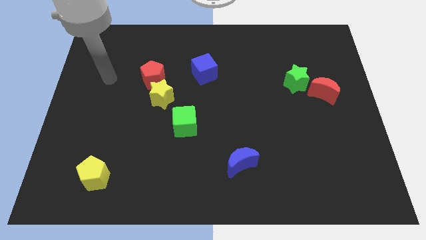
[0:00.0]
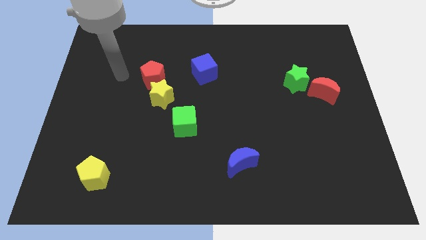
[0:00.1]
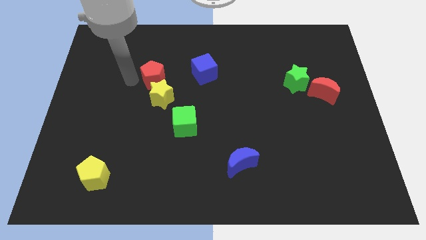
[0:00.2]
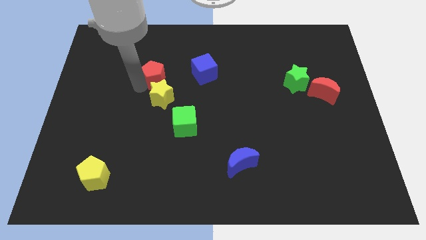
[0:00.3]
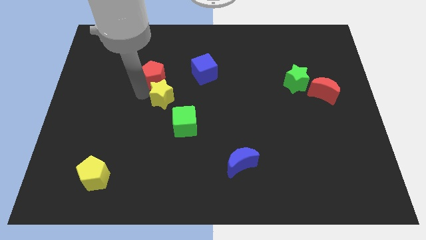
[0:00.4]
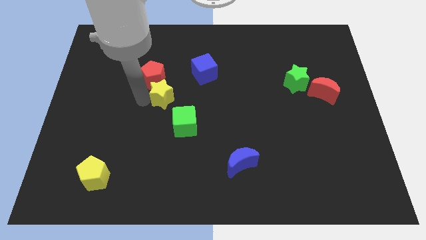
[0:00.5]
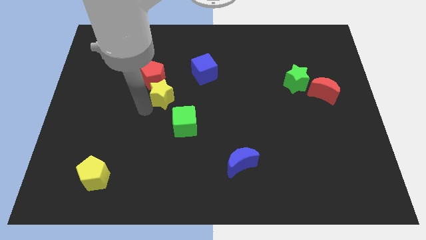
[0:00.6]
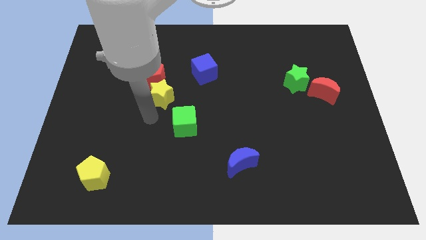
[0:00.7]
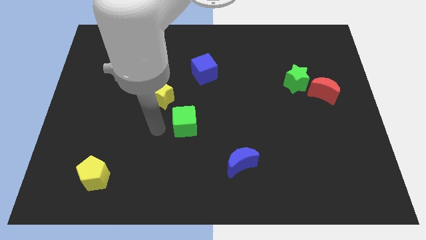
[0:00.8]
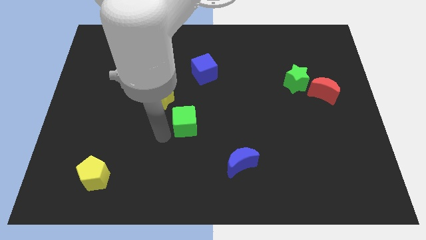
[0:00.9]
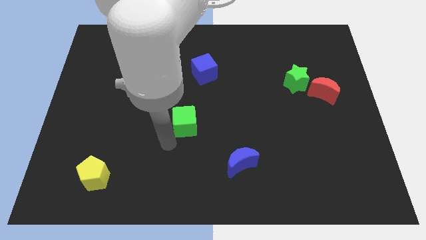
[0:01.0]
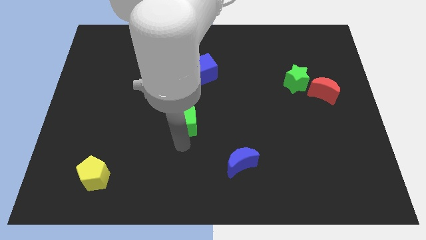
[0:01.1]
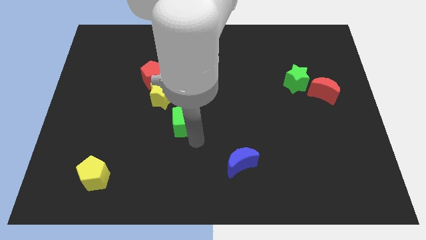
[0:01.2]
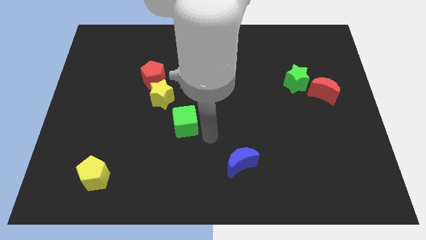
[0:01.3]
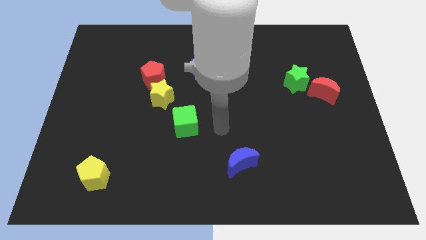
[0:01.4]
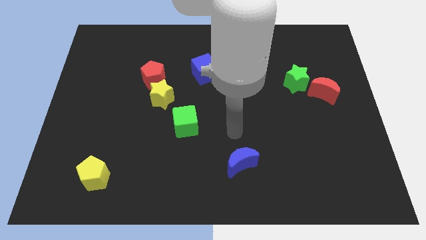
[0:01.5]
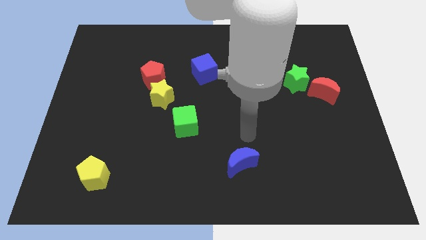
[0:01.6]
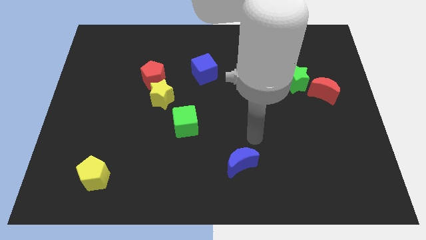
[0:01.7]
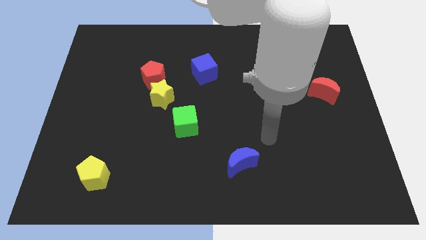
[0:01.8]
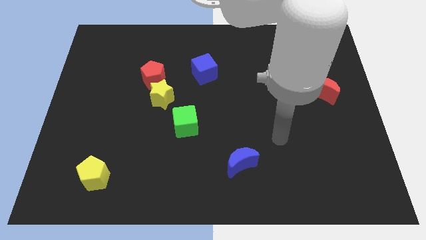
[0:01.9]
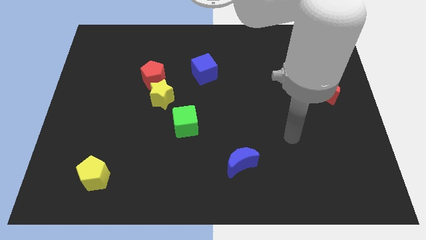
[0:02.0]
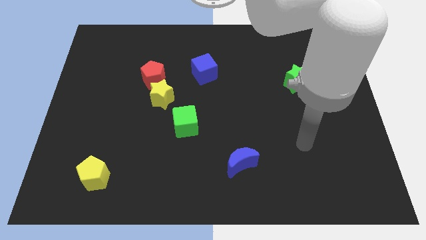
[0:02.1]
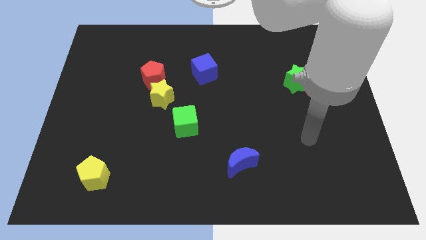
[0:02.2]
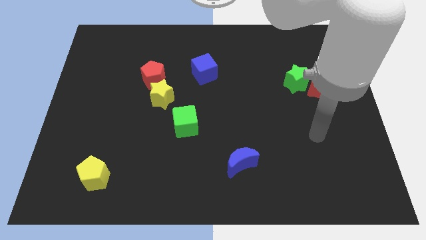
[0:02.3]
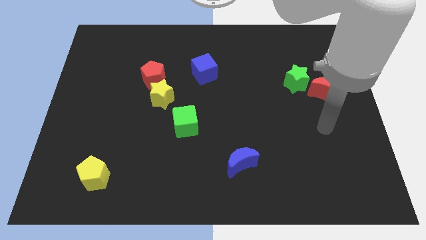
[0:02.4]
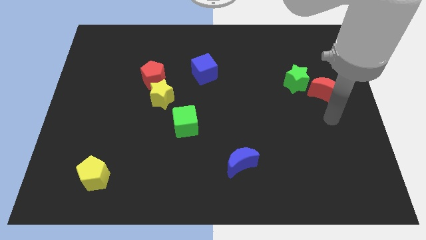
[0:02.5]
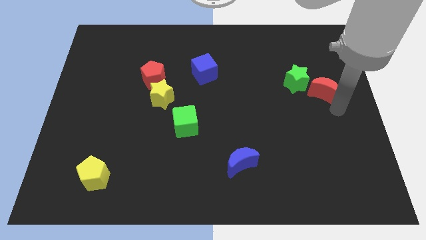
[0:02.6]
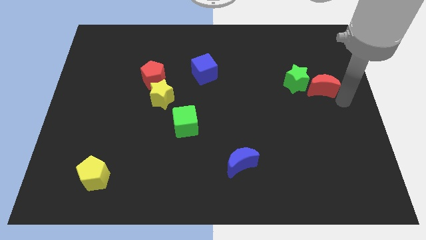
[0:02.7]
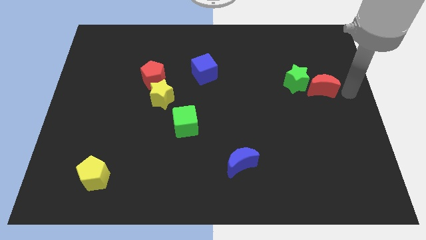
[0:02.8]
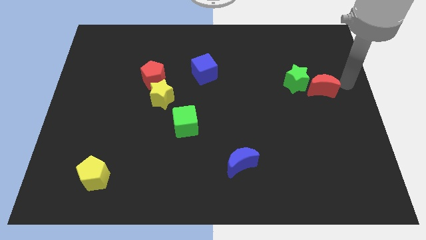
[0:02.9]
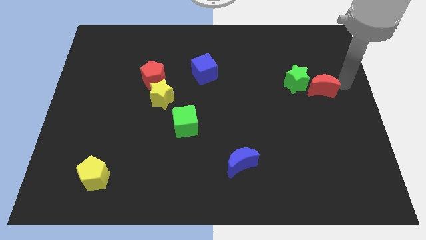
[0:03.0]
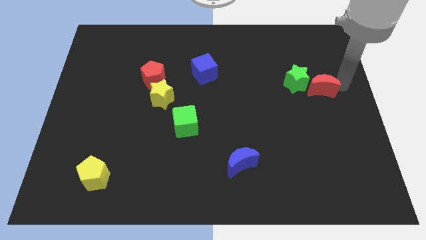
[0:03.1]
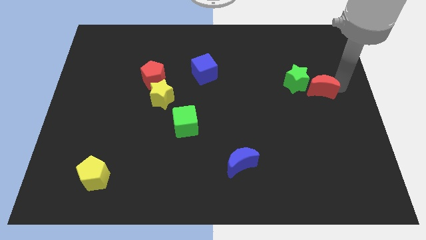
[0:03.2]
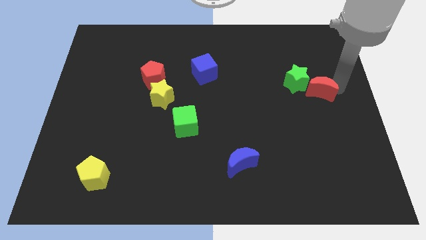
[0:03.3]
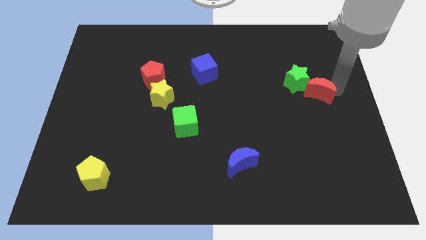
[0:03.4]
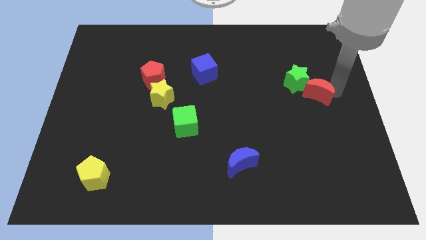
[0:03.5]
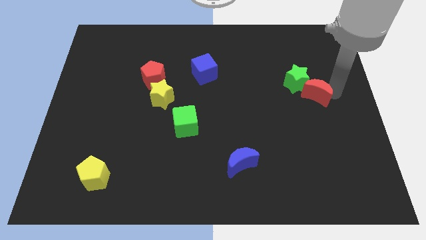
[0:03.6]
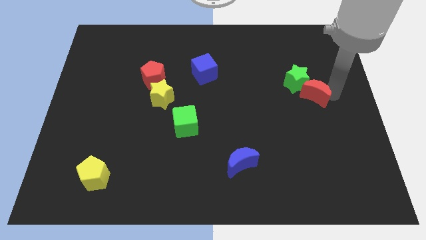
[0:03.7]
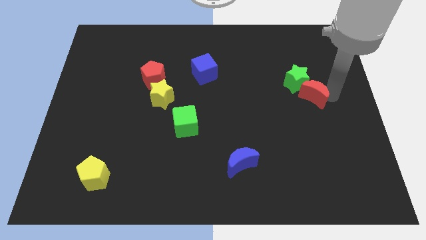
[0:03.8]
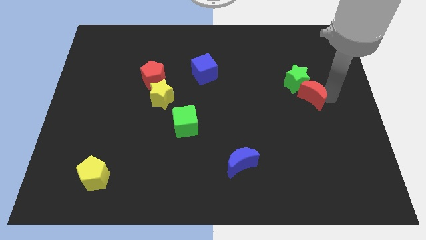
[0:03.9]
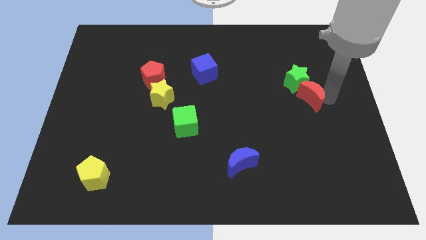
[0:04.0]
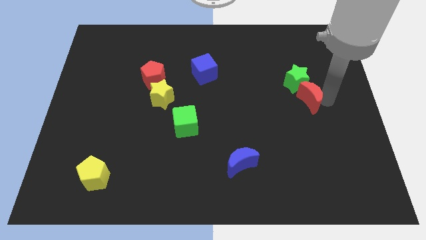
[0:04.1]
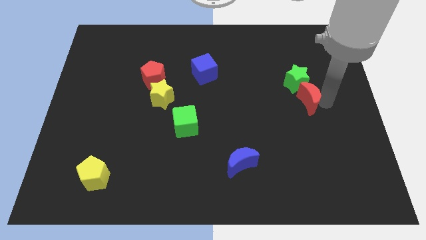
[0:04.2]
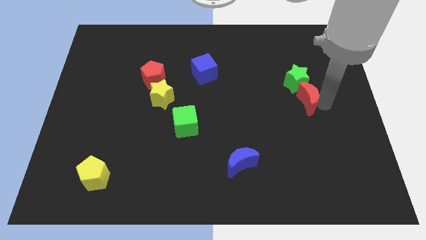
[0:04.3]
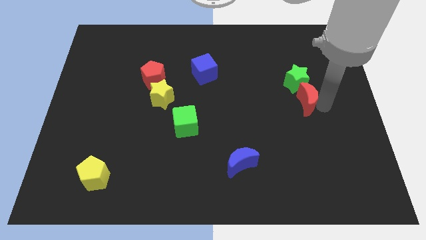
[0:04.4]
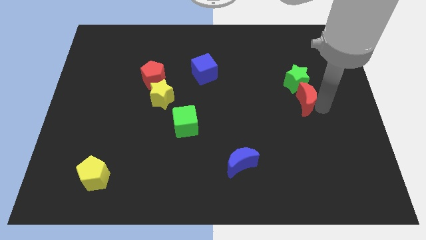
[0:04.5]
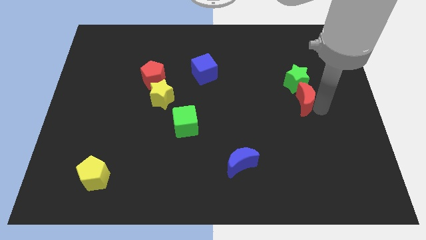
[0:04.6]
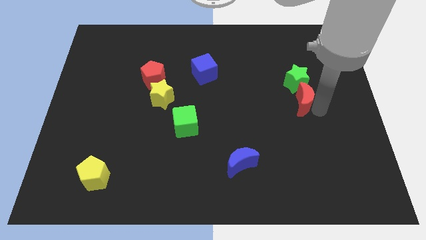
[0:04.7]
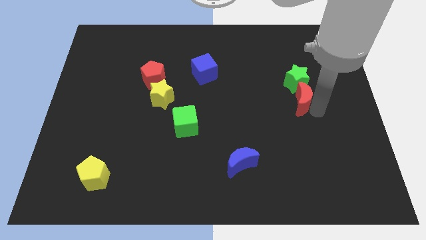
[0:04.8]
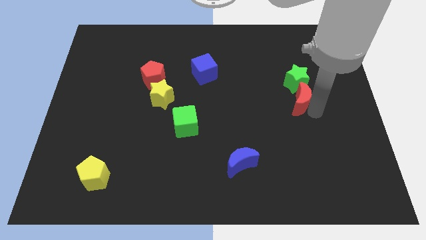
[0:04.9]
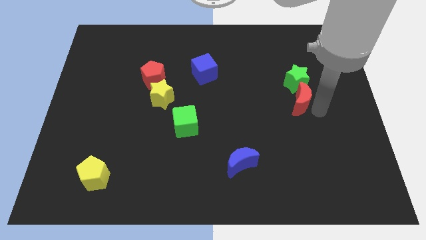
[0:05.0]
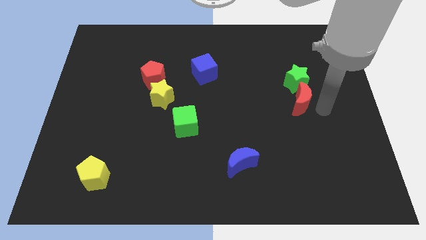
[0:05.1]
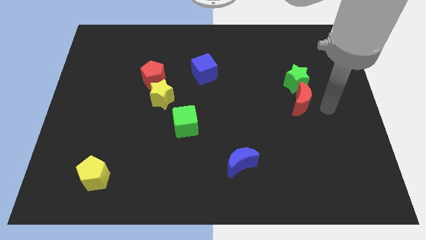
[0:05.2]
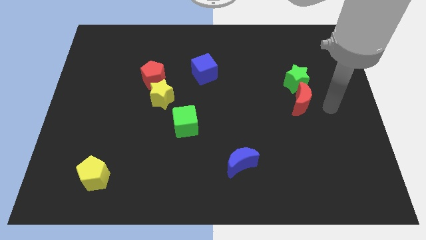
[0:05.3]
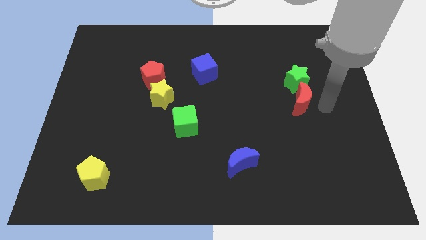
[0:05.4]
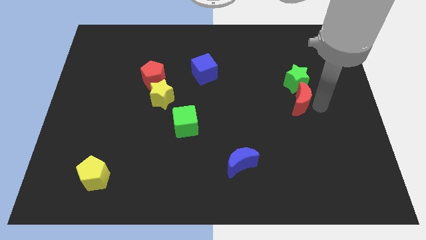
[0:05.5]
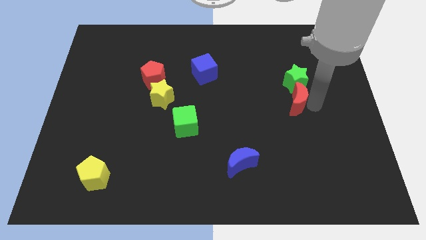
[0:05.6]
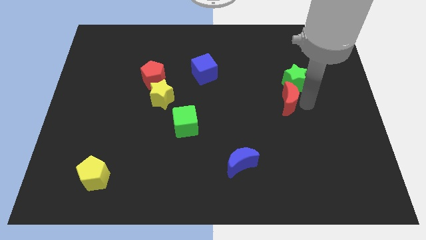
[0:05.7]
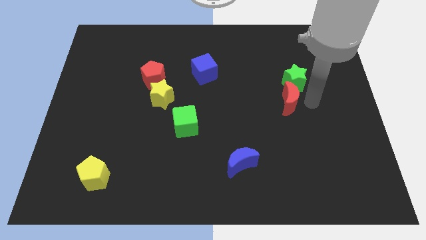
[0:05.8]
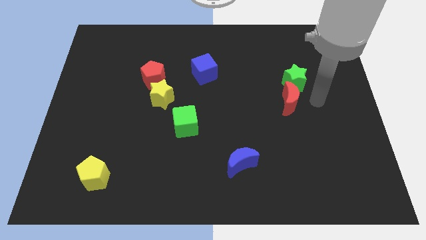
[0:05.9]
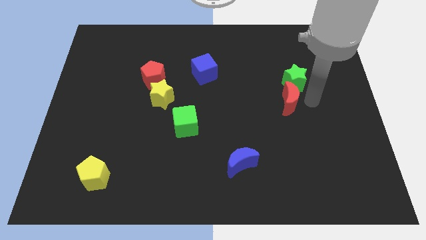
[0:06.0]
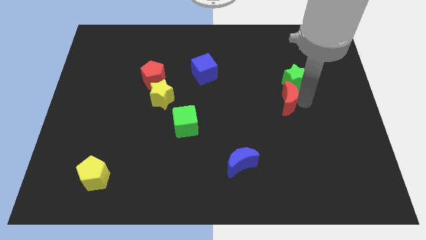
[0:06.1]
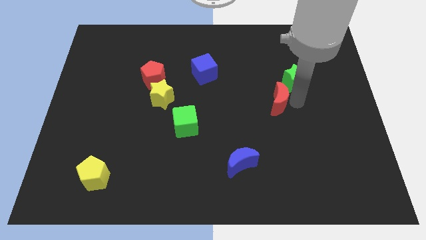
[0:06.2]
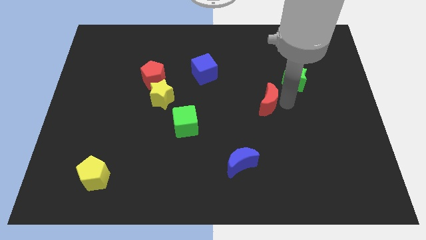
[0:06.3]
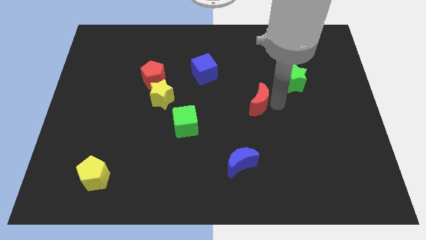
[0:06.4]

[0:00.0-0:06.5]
slide the red moon to the middle
